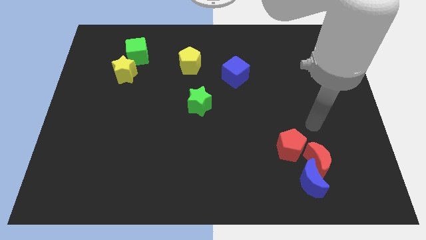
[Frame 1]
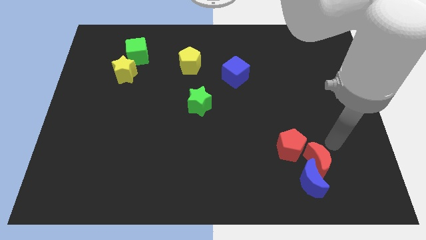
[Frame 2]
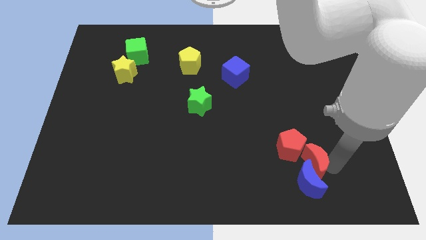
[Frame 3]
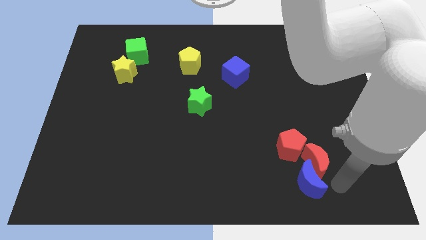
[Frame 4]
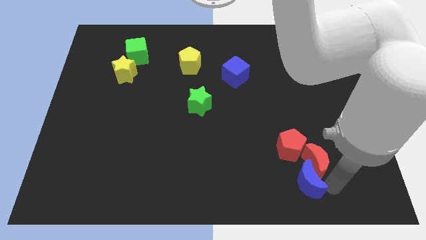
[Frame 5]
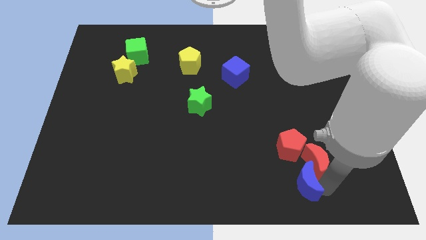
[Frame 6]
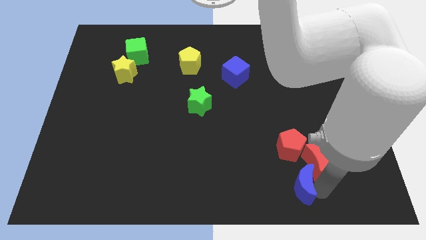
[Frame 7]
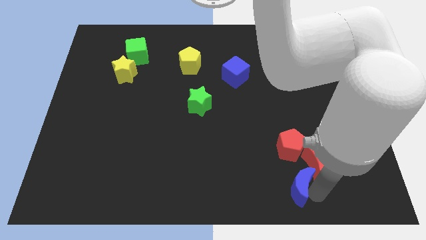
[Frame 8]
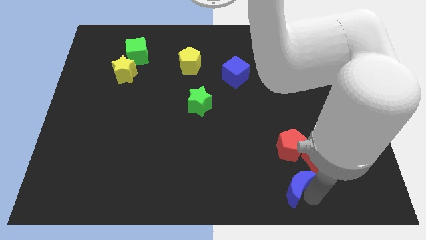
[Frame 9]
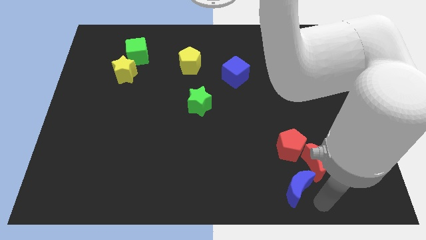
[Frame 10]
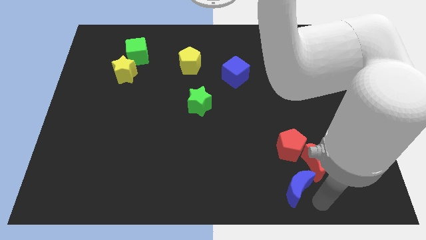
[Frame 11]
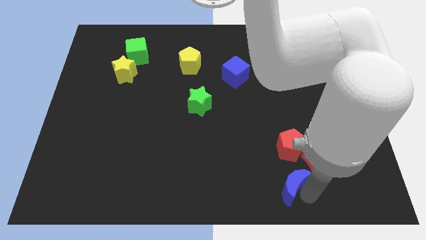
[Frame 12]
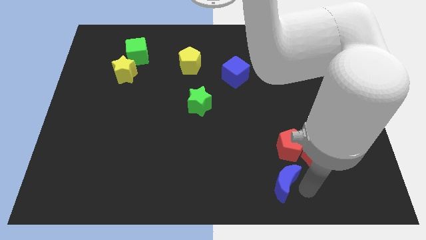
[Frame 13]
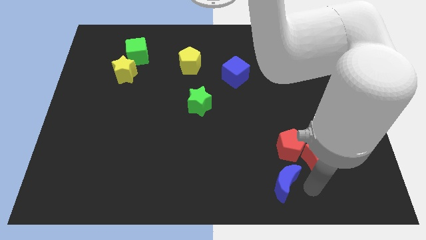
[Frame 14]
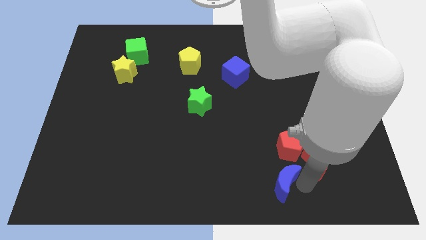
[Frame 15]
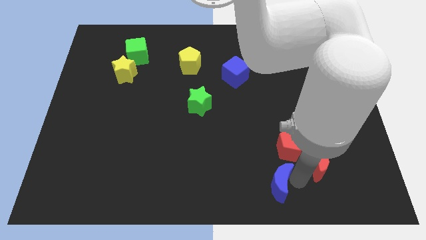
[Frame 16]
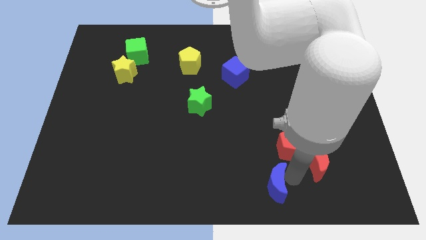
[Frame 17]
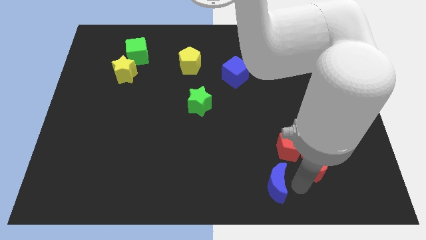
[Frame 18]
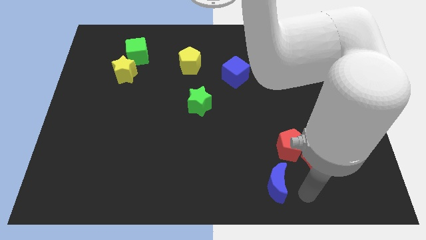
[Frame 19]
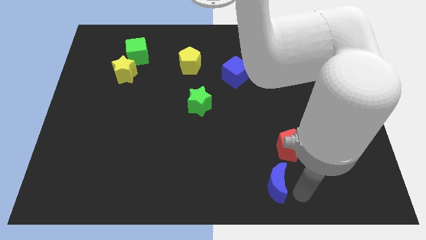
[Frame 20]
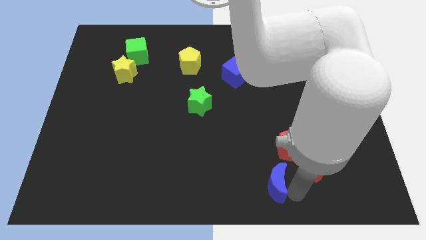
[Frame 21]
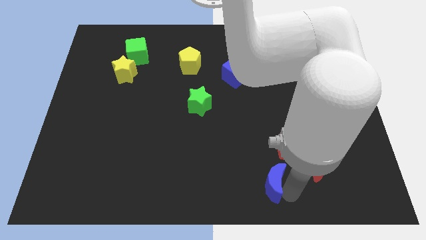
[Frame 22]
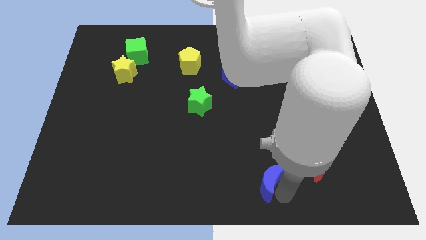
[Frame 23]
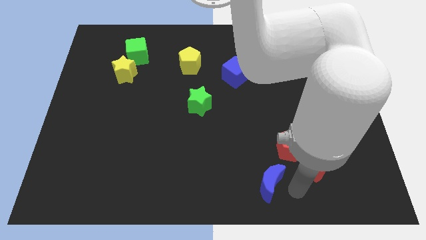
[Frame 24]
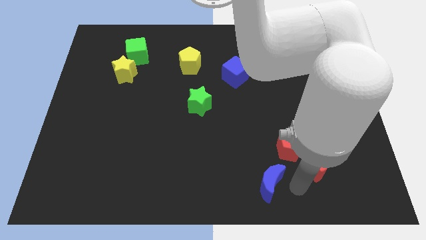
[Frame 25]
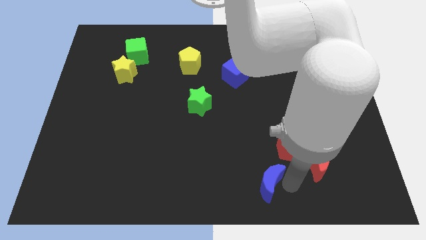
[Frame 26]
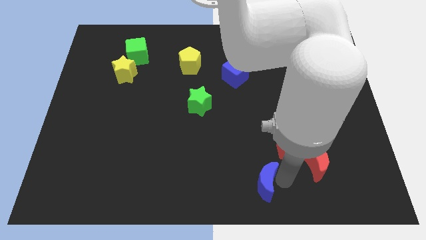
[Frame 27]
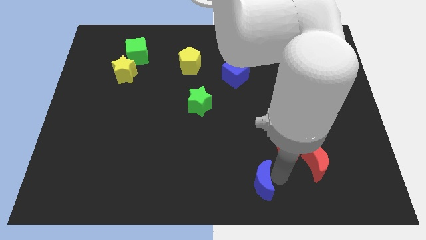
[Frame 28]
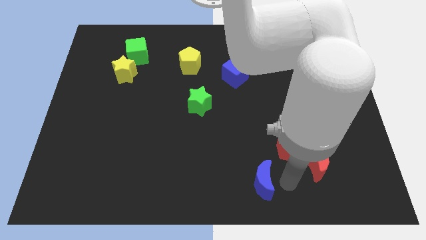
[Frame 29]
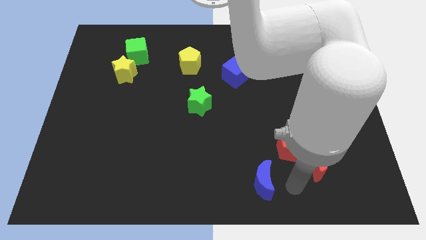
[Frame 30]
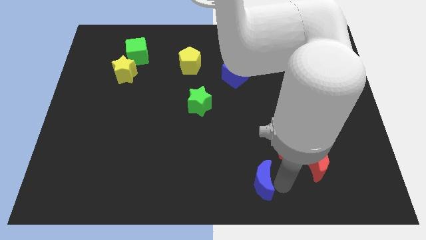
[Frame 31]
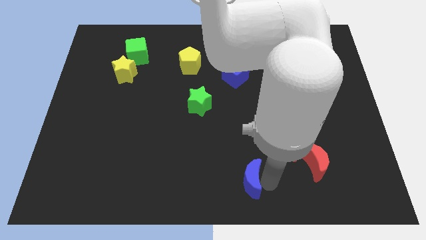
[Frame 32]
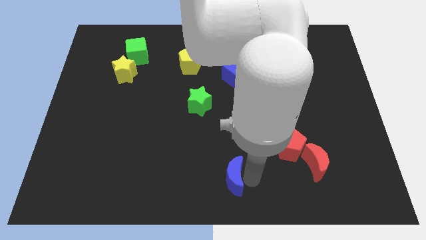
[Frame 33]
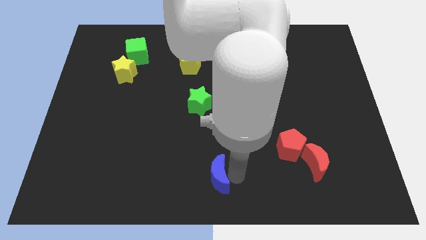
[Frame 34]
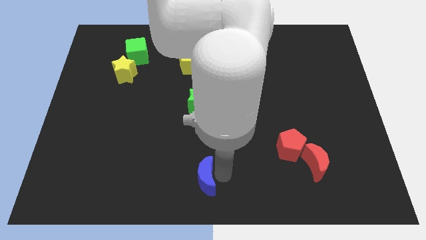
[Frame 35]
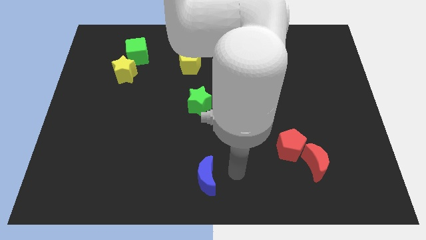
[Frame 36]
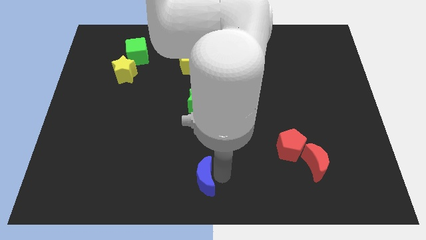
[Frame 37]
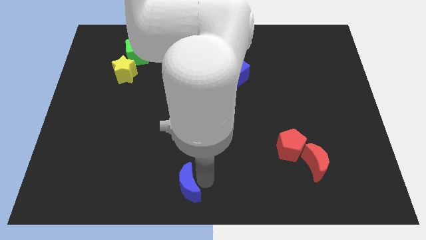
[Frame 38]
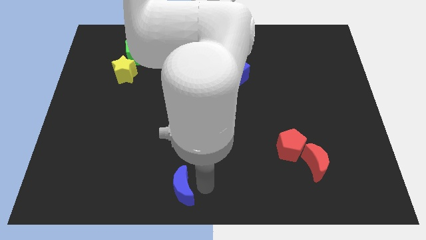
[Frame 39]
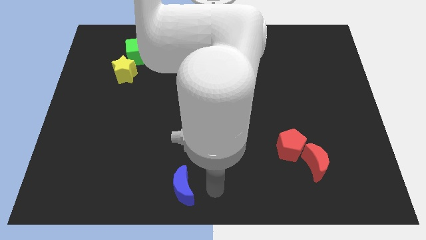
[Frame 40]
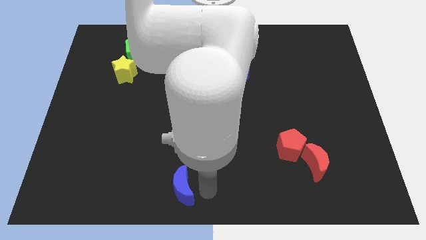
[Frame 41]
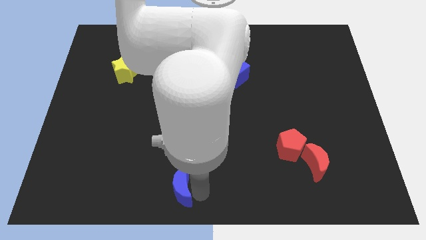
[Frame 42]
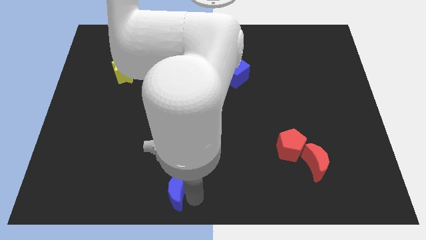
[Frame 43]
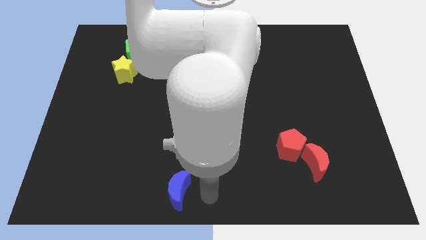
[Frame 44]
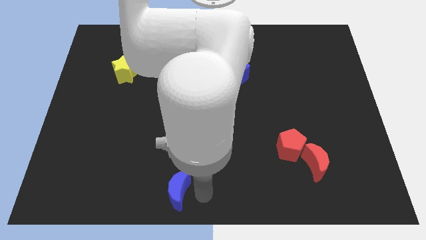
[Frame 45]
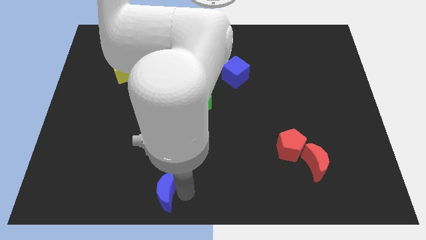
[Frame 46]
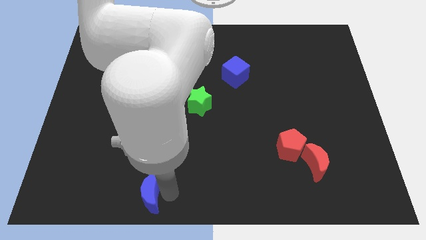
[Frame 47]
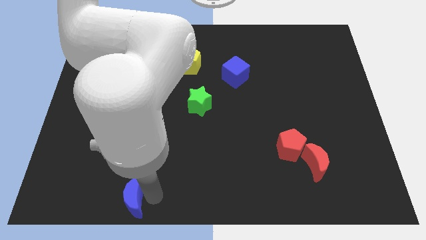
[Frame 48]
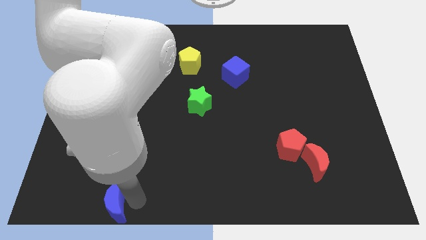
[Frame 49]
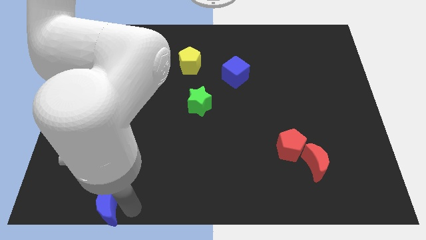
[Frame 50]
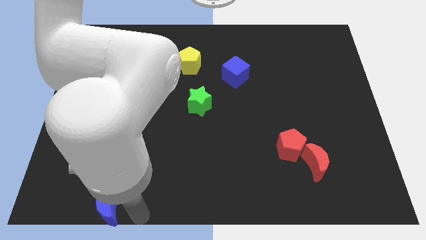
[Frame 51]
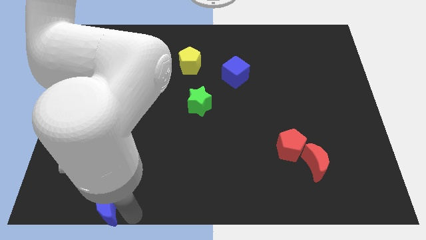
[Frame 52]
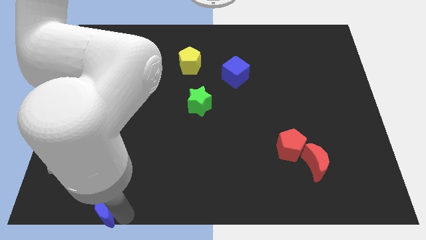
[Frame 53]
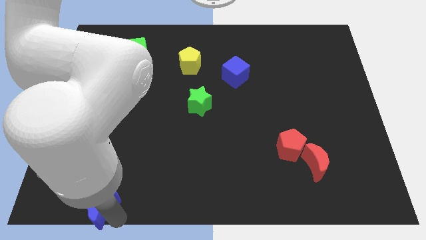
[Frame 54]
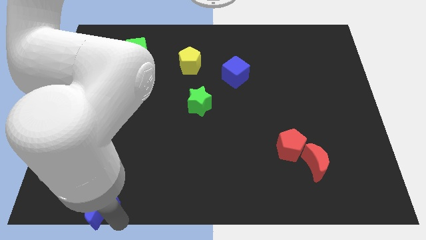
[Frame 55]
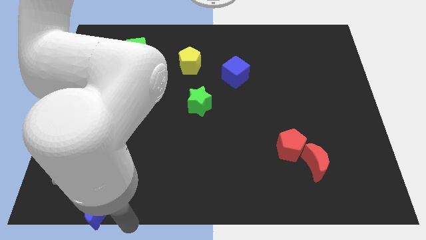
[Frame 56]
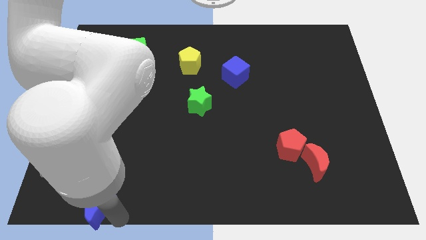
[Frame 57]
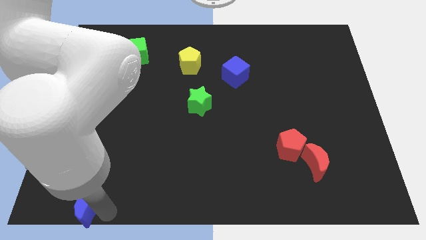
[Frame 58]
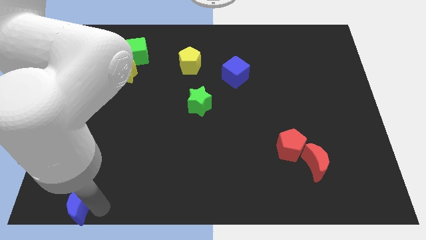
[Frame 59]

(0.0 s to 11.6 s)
put the blue moon to the bottom left
